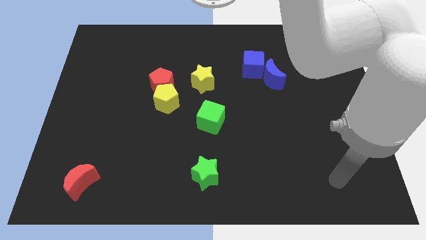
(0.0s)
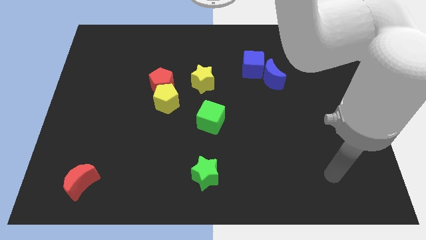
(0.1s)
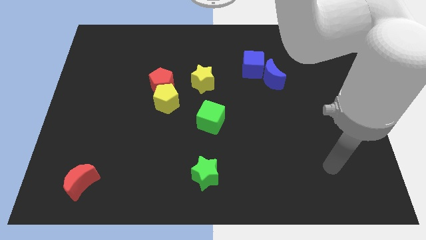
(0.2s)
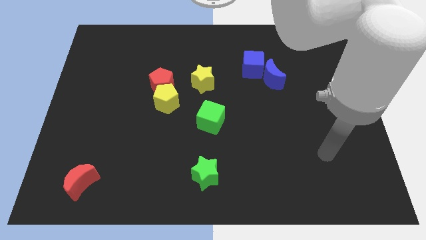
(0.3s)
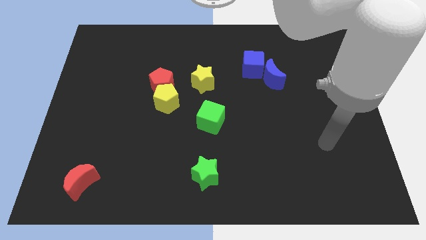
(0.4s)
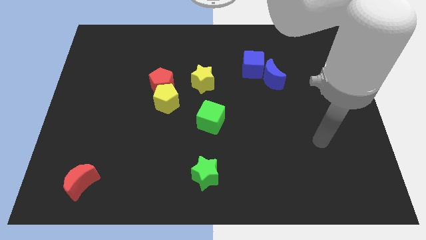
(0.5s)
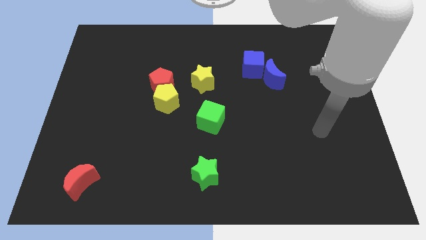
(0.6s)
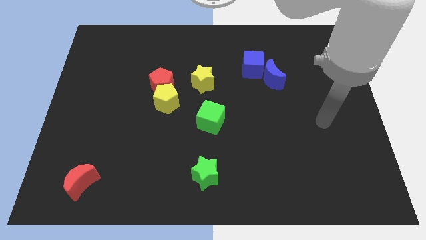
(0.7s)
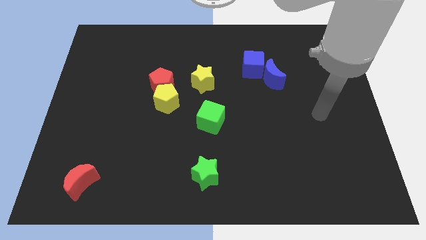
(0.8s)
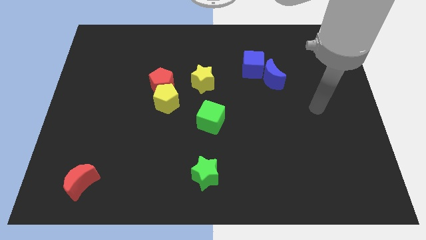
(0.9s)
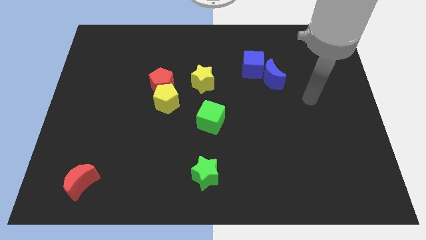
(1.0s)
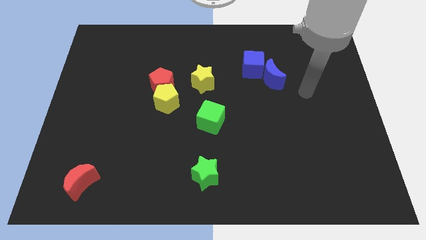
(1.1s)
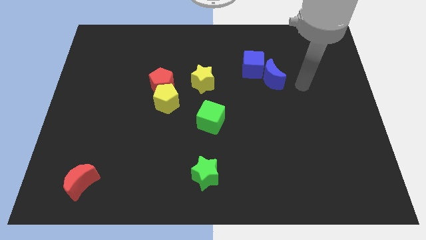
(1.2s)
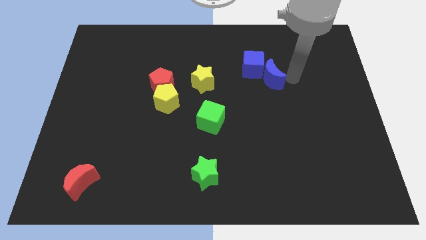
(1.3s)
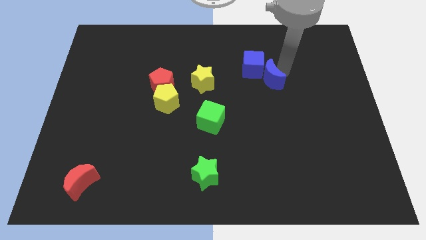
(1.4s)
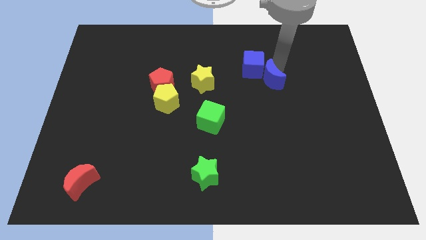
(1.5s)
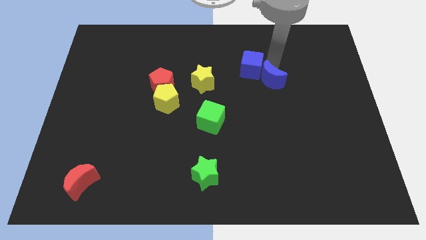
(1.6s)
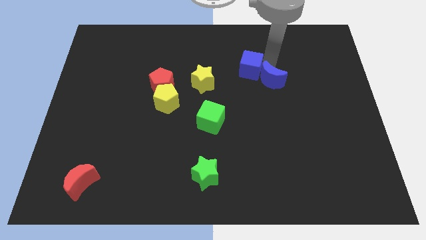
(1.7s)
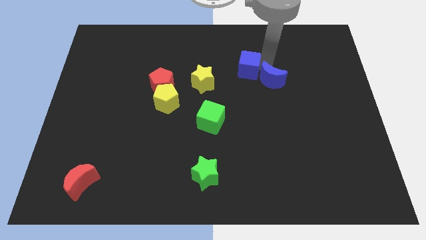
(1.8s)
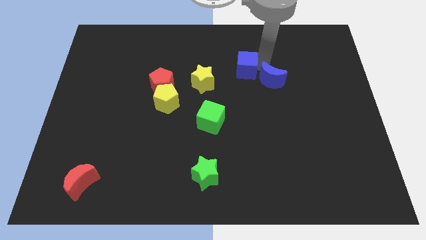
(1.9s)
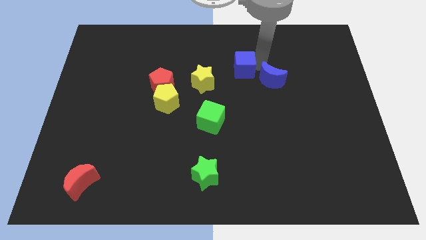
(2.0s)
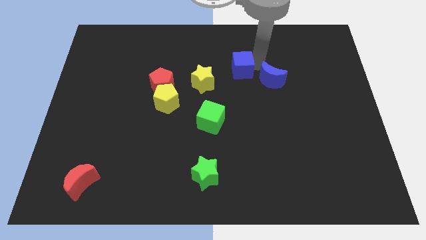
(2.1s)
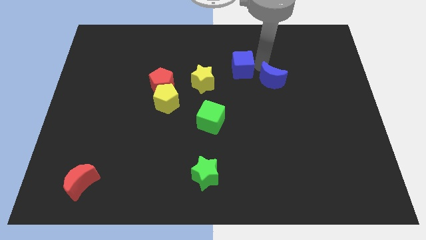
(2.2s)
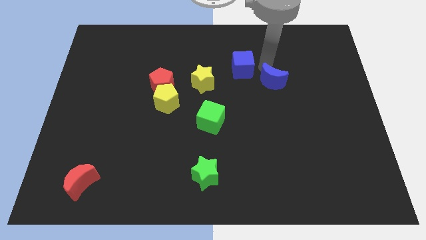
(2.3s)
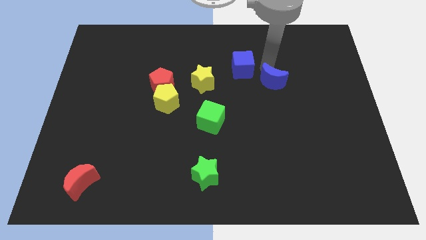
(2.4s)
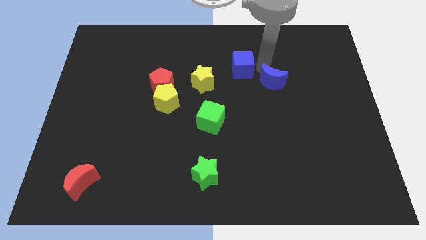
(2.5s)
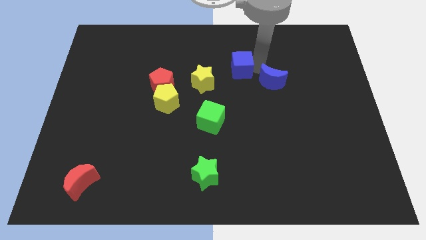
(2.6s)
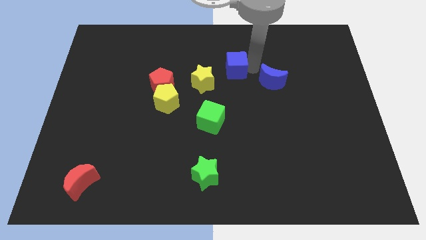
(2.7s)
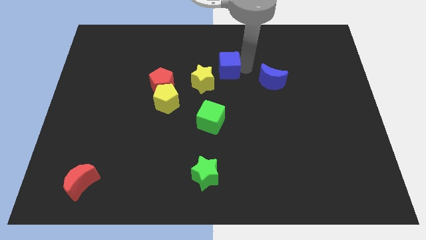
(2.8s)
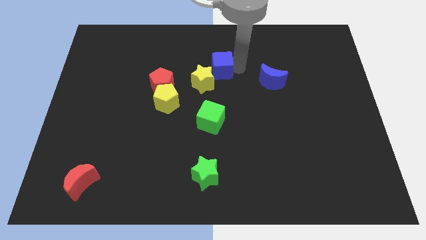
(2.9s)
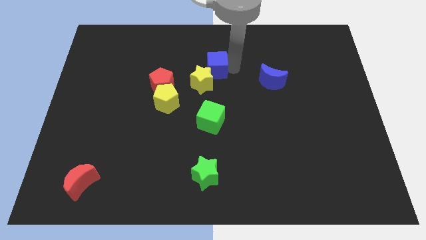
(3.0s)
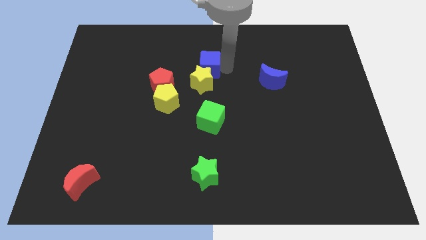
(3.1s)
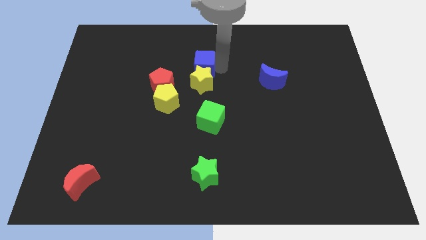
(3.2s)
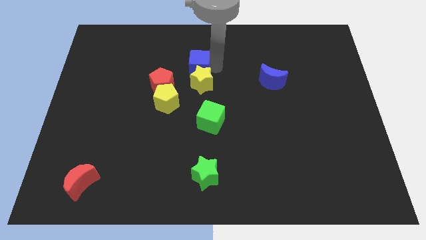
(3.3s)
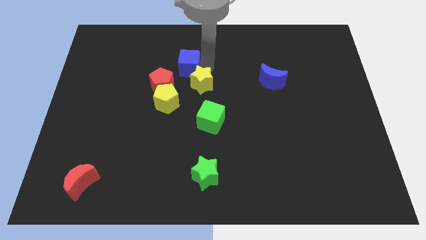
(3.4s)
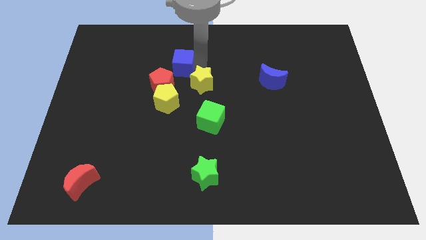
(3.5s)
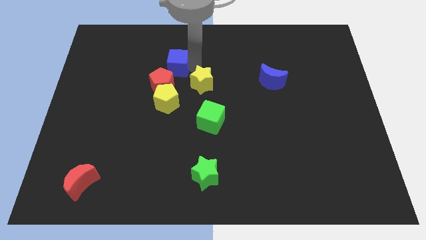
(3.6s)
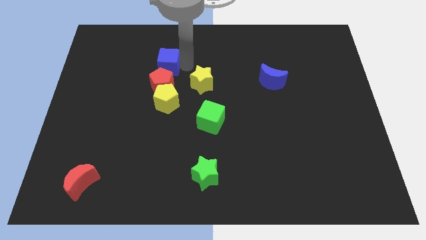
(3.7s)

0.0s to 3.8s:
slide the blue cube left

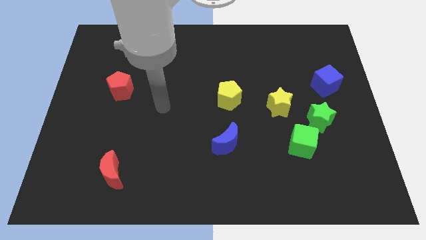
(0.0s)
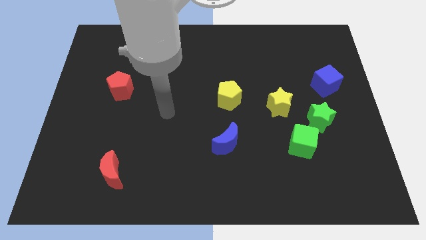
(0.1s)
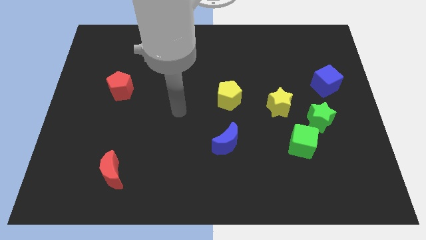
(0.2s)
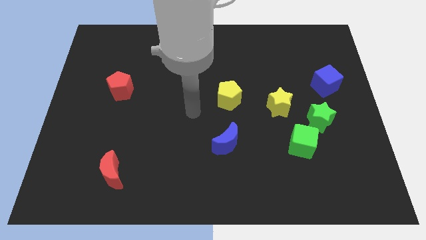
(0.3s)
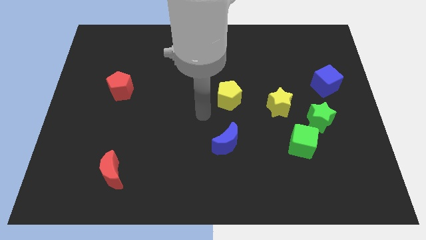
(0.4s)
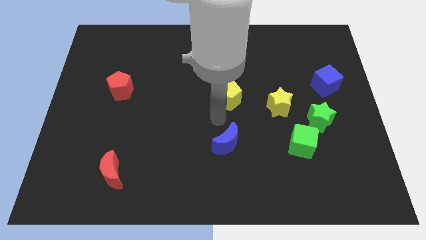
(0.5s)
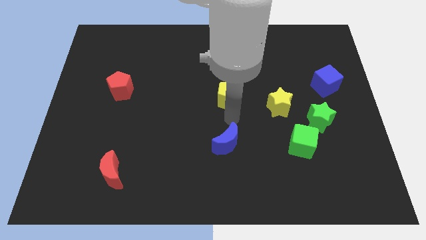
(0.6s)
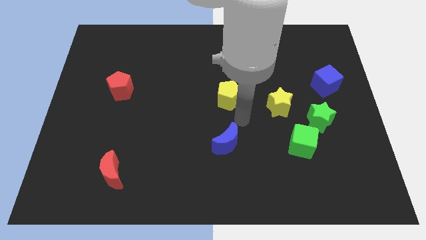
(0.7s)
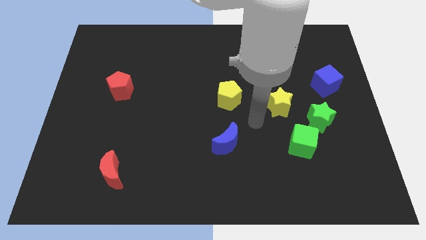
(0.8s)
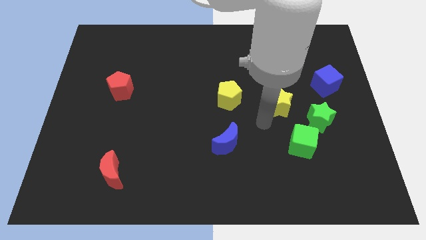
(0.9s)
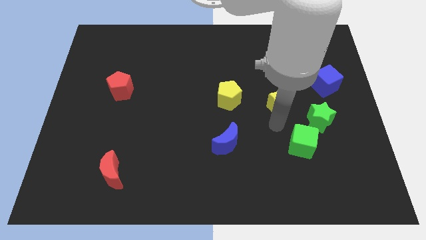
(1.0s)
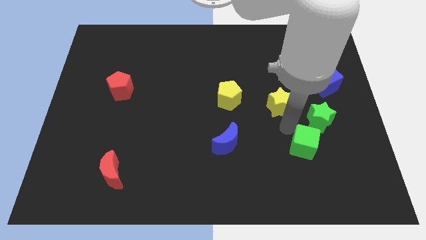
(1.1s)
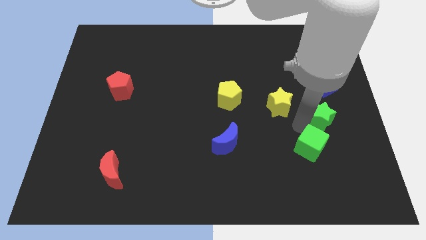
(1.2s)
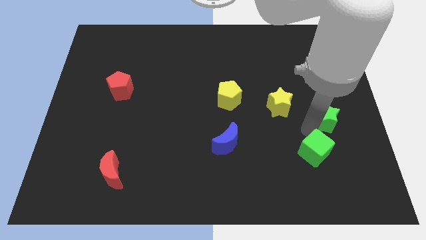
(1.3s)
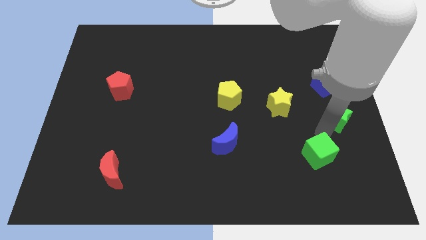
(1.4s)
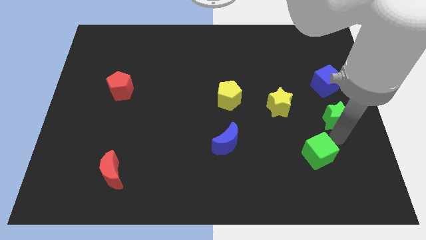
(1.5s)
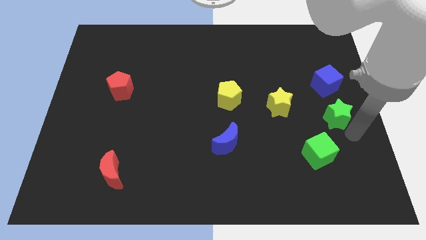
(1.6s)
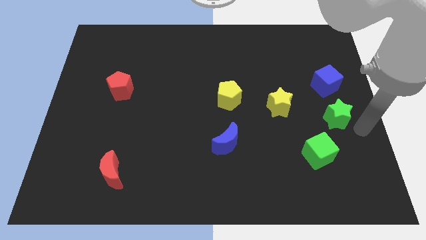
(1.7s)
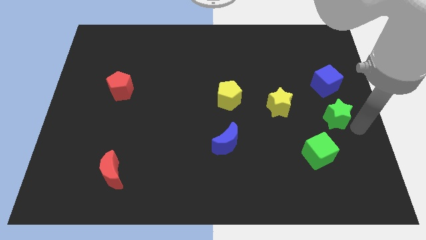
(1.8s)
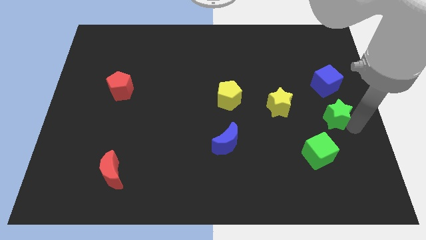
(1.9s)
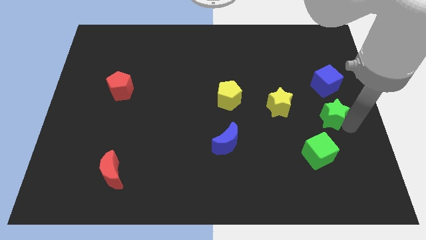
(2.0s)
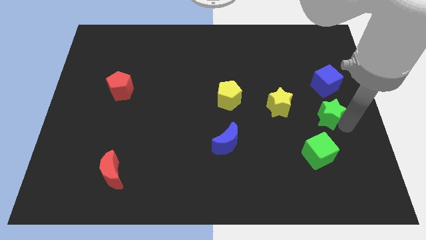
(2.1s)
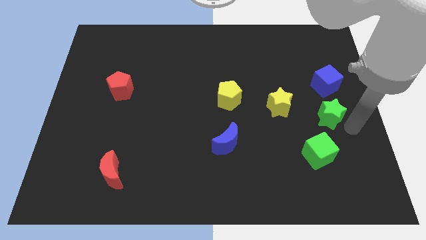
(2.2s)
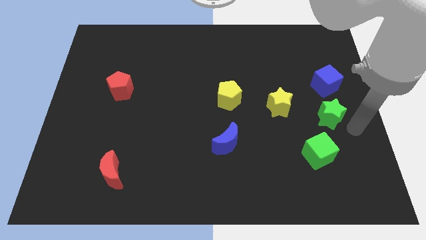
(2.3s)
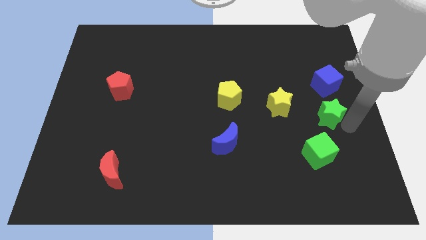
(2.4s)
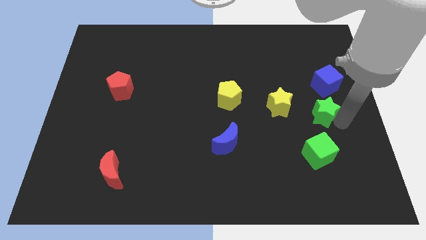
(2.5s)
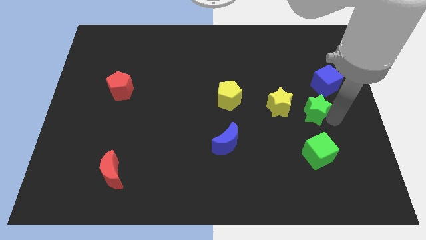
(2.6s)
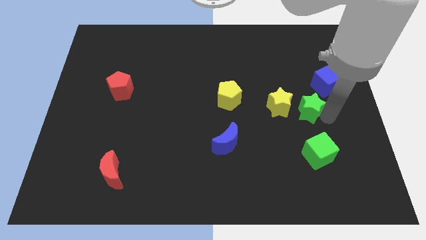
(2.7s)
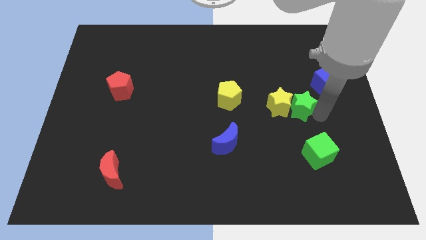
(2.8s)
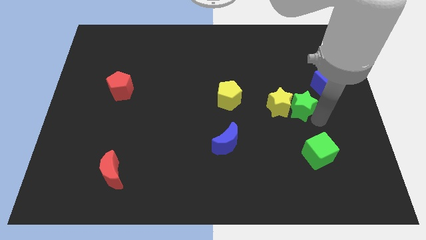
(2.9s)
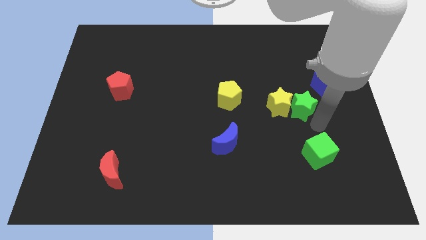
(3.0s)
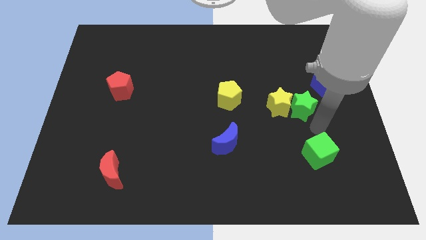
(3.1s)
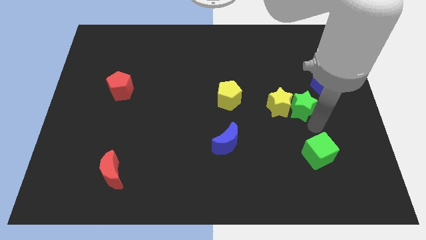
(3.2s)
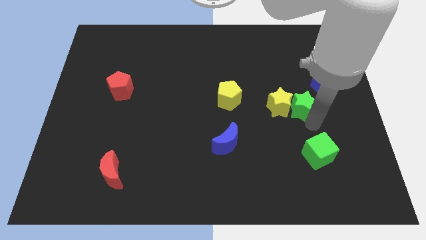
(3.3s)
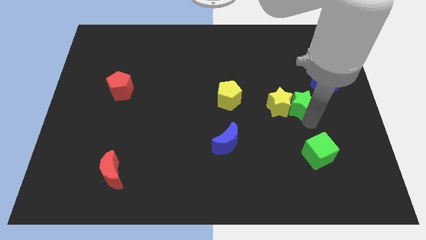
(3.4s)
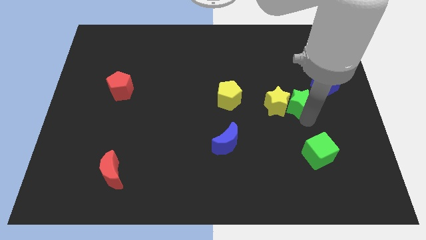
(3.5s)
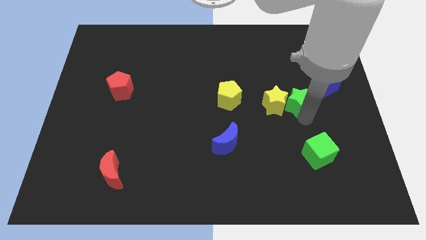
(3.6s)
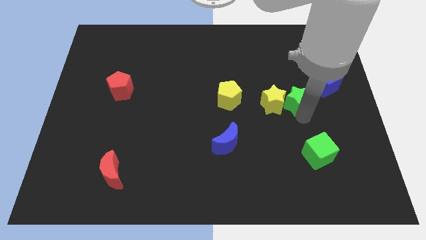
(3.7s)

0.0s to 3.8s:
slightly push the green star upwards and to the left

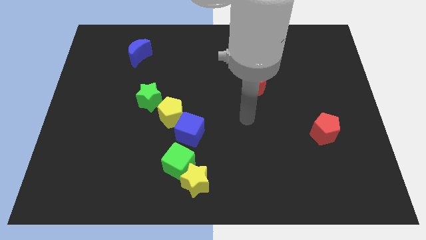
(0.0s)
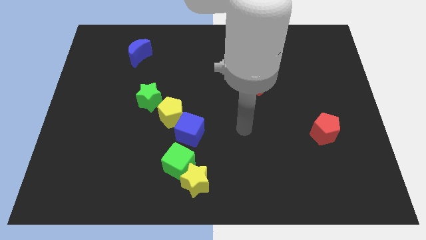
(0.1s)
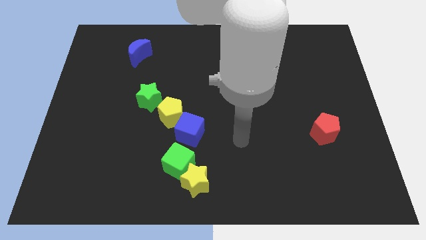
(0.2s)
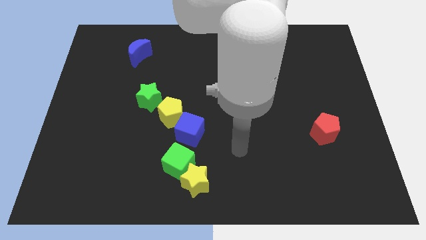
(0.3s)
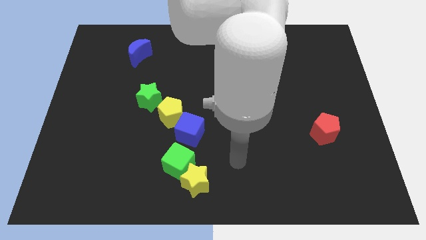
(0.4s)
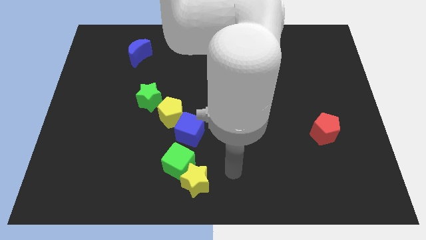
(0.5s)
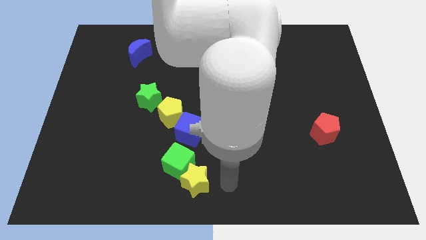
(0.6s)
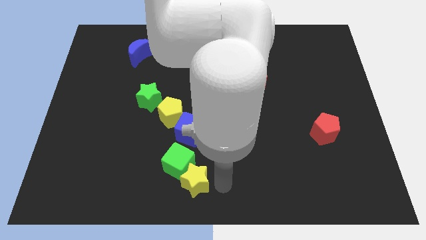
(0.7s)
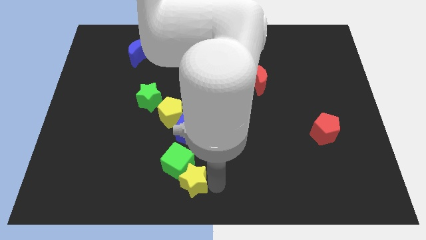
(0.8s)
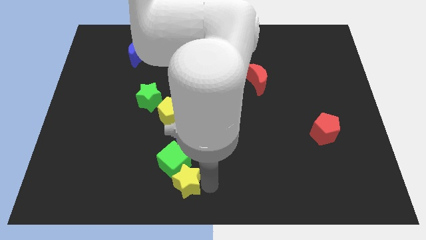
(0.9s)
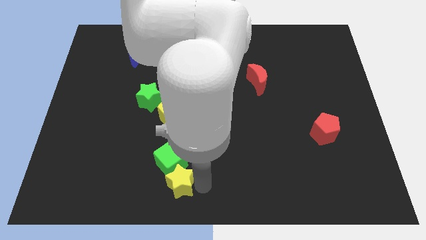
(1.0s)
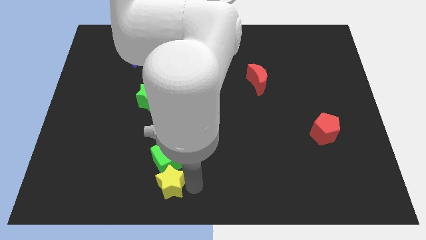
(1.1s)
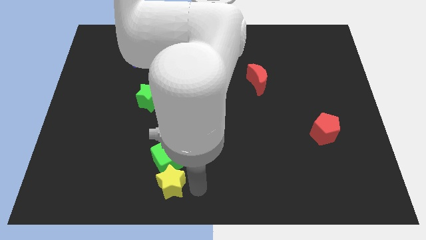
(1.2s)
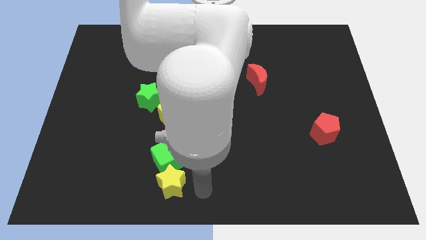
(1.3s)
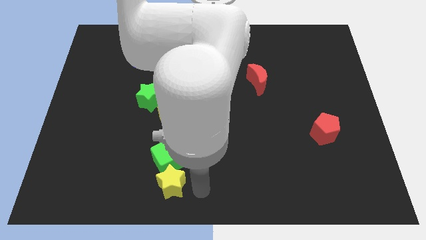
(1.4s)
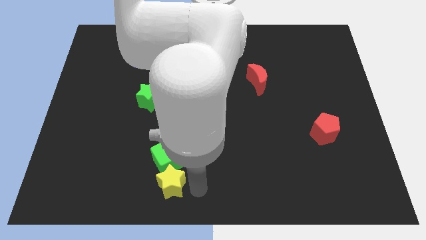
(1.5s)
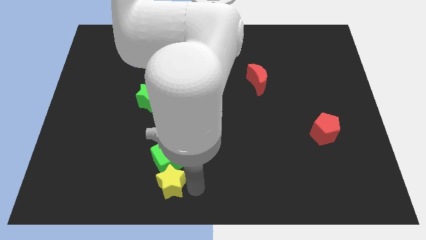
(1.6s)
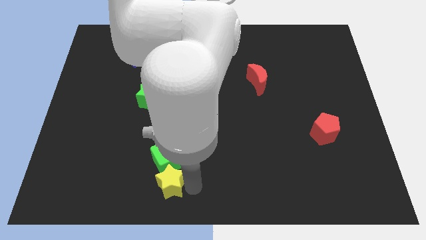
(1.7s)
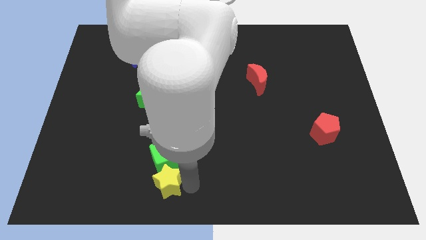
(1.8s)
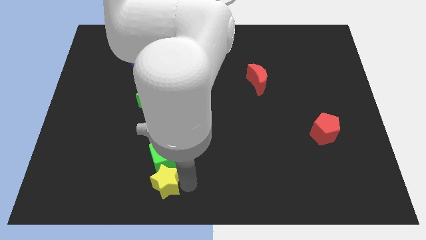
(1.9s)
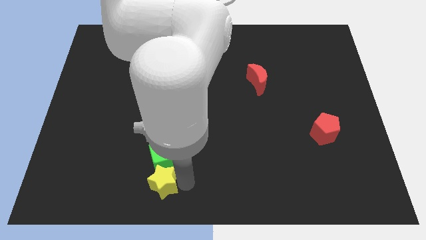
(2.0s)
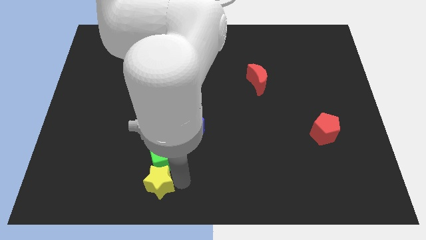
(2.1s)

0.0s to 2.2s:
push the yellow star a little left
